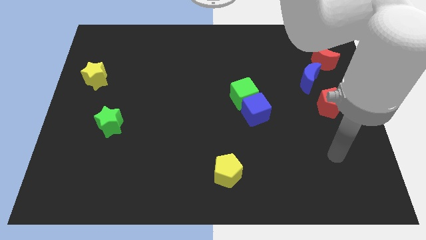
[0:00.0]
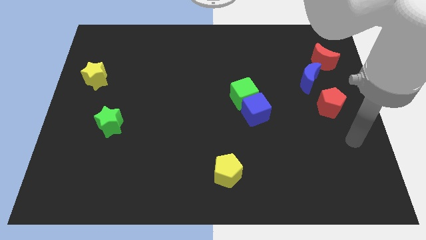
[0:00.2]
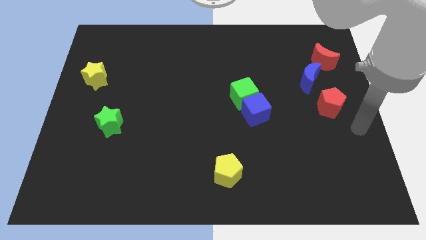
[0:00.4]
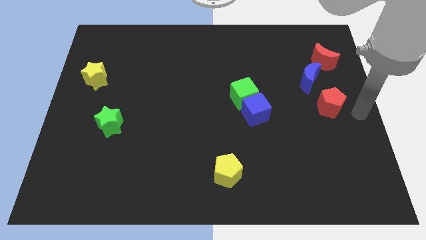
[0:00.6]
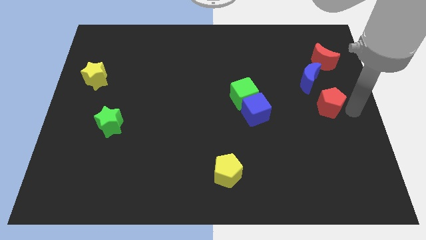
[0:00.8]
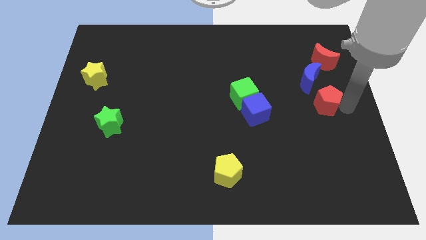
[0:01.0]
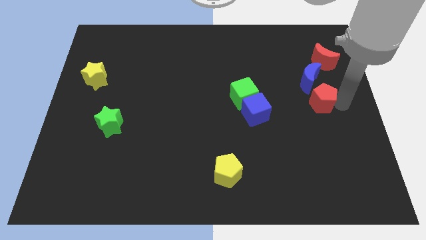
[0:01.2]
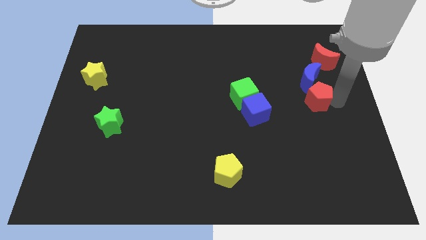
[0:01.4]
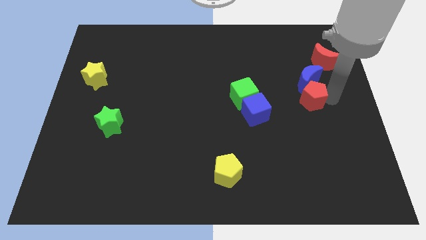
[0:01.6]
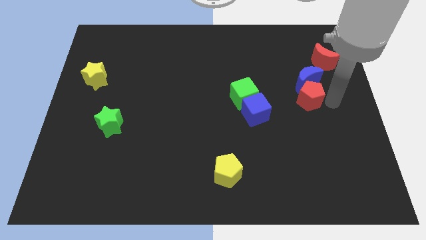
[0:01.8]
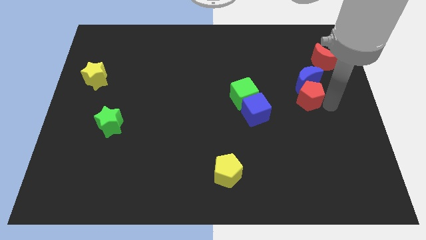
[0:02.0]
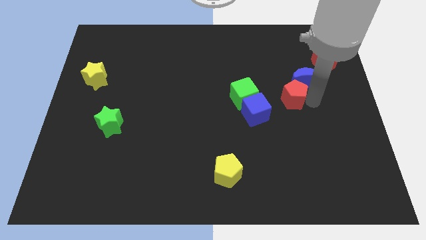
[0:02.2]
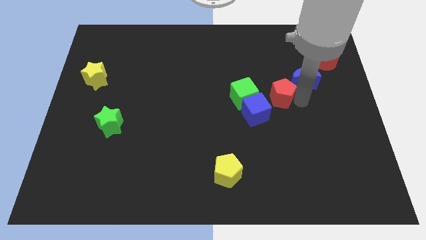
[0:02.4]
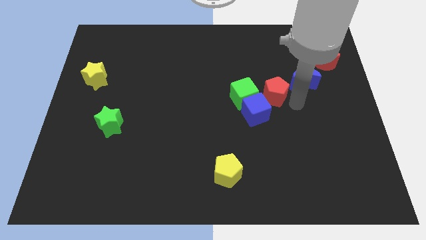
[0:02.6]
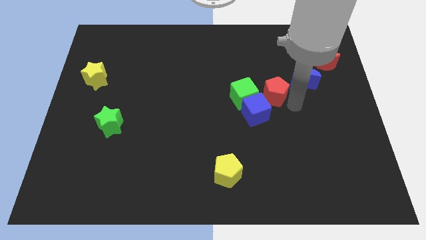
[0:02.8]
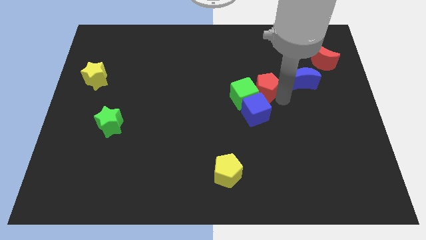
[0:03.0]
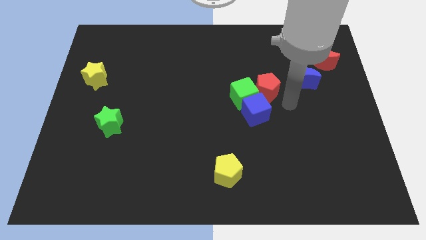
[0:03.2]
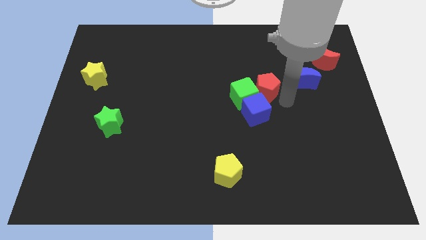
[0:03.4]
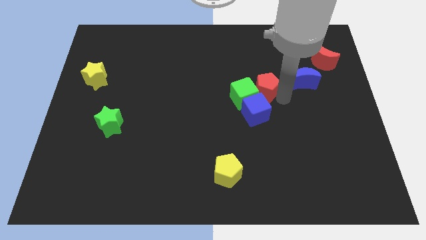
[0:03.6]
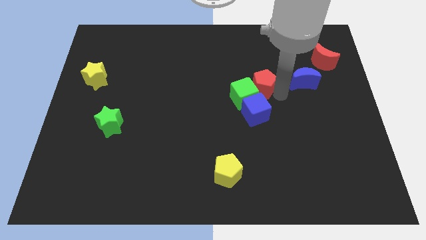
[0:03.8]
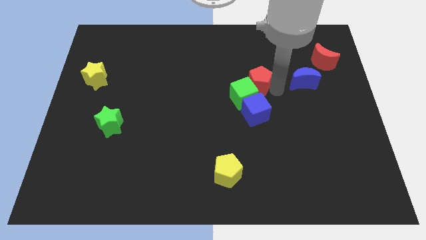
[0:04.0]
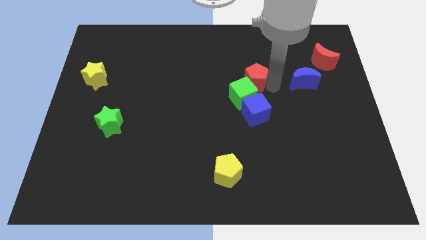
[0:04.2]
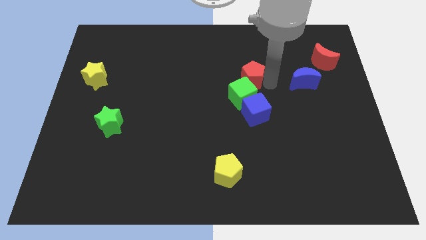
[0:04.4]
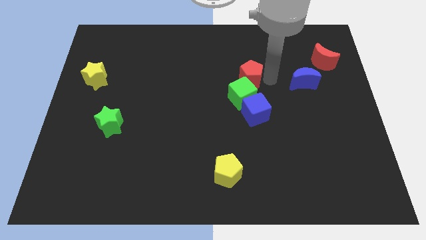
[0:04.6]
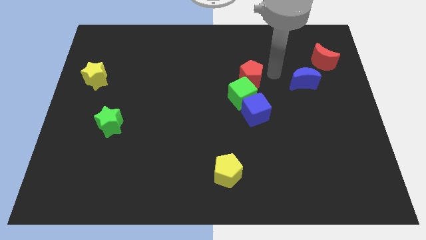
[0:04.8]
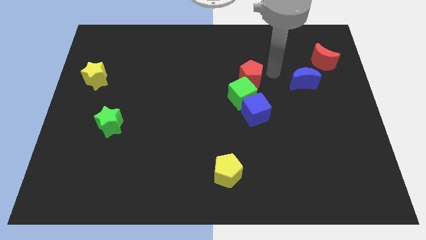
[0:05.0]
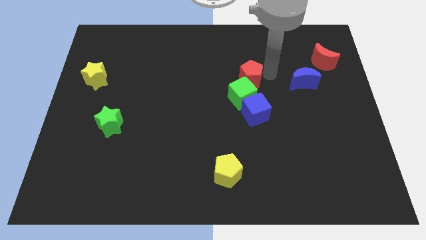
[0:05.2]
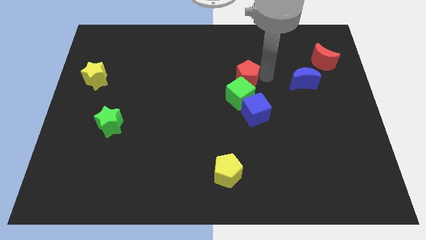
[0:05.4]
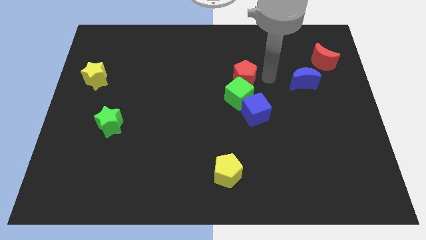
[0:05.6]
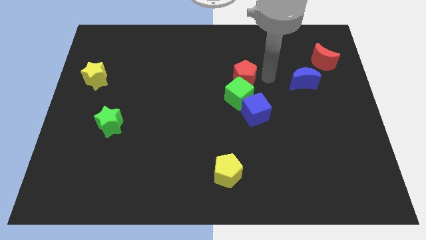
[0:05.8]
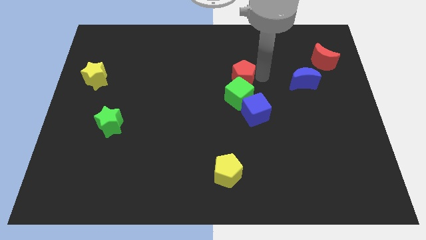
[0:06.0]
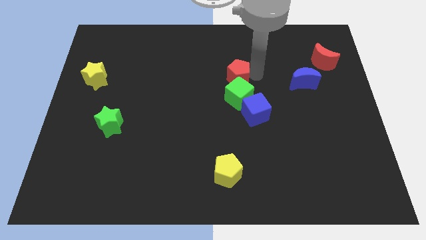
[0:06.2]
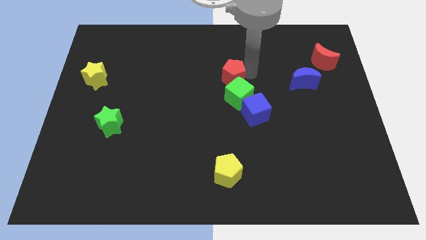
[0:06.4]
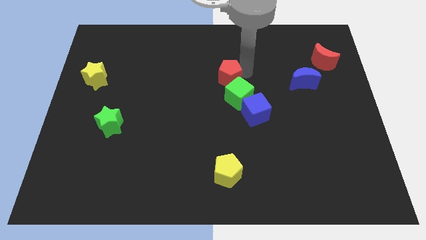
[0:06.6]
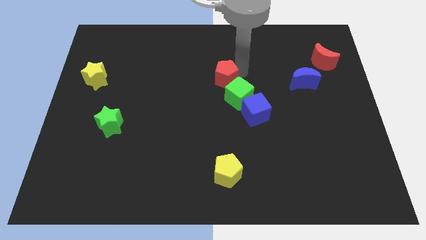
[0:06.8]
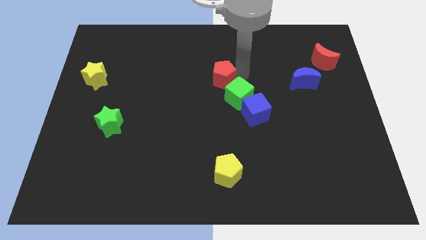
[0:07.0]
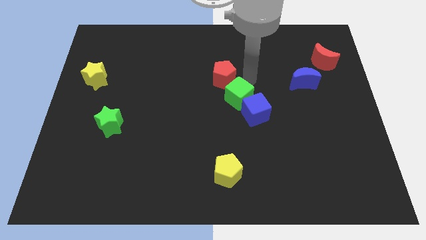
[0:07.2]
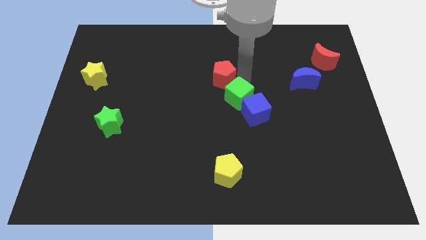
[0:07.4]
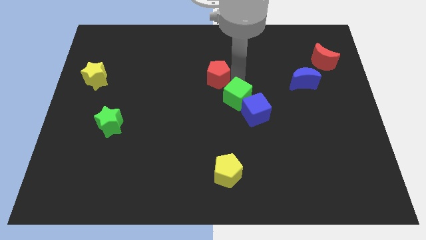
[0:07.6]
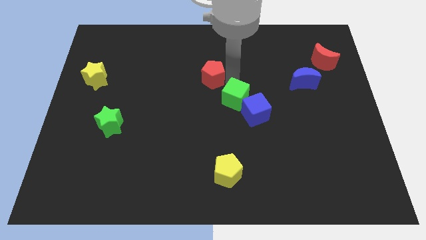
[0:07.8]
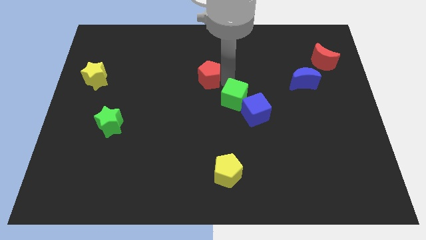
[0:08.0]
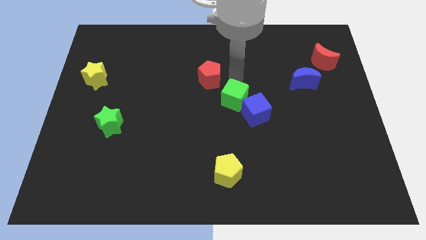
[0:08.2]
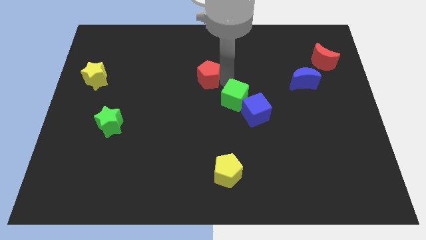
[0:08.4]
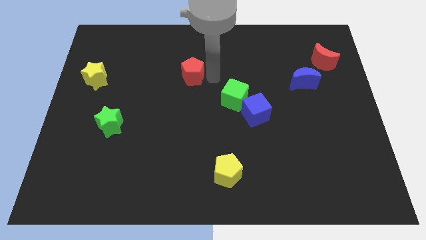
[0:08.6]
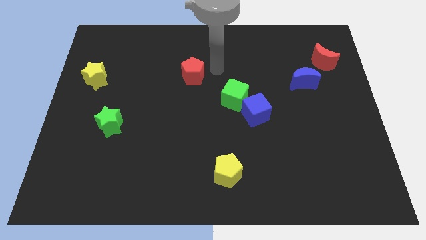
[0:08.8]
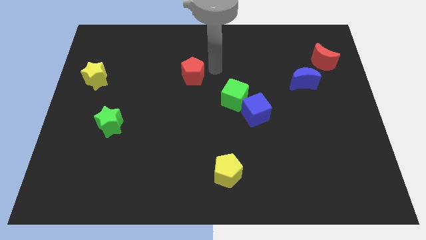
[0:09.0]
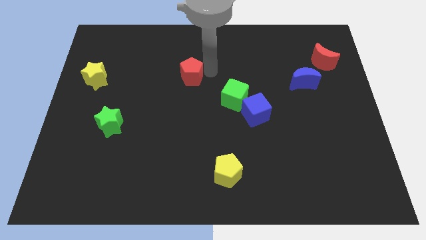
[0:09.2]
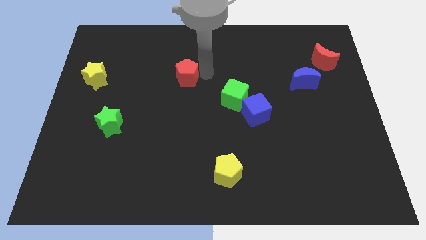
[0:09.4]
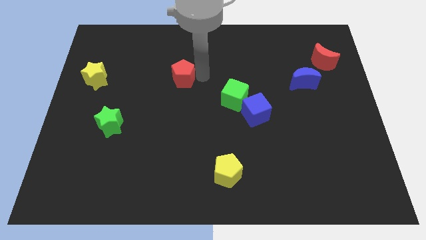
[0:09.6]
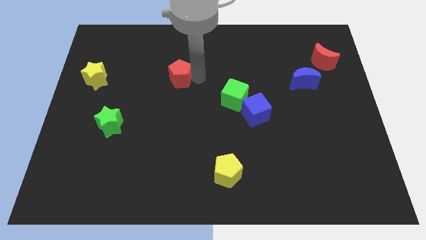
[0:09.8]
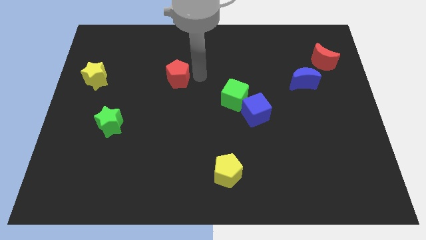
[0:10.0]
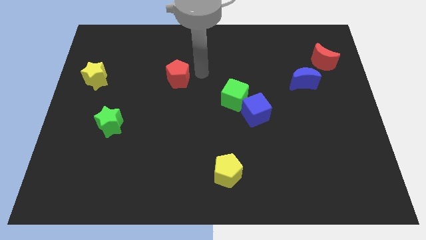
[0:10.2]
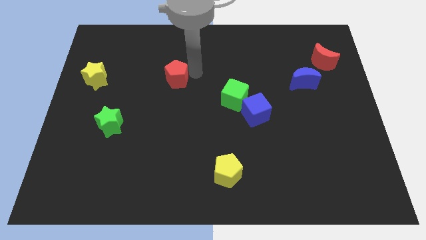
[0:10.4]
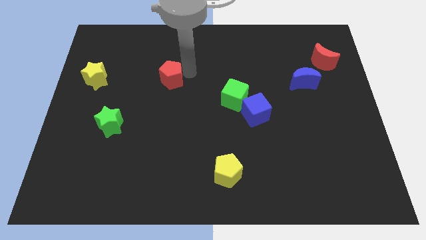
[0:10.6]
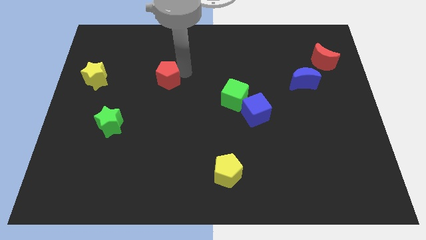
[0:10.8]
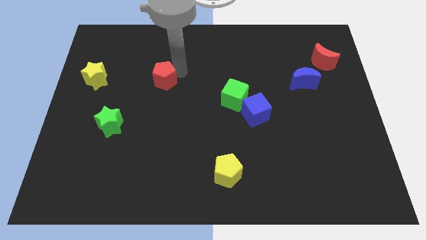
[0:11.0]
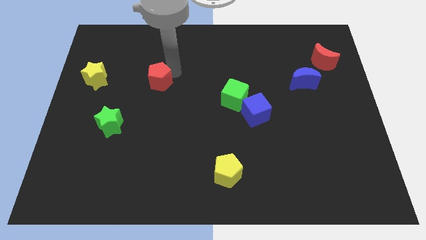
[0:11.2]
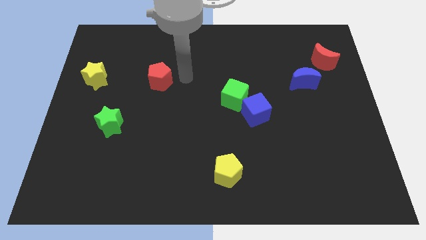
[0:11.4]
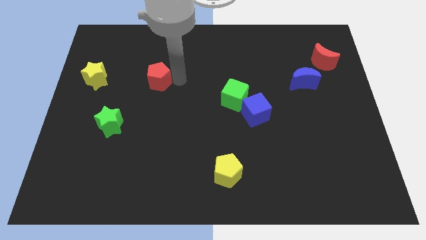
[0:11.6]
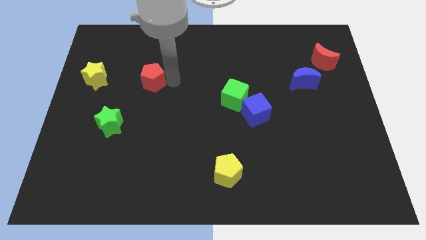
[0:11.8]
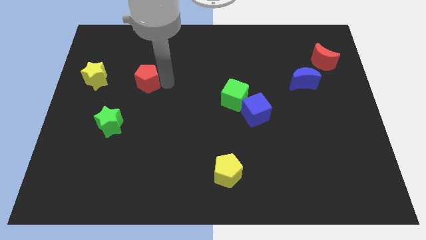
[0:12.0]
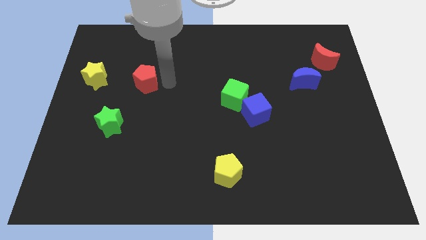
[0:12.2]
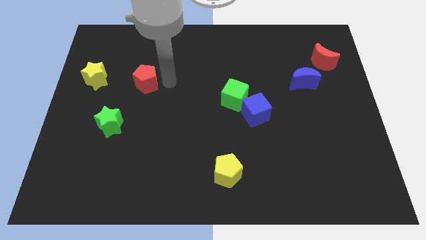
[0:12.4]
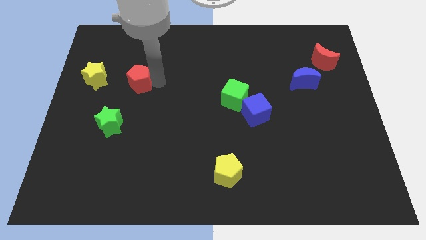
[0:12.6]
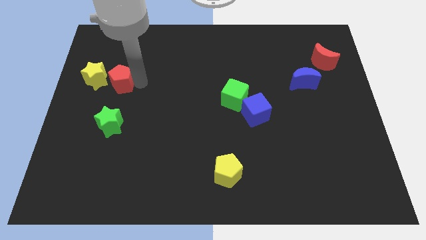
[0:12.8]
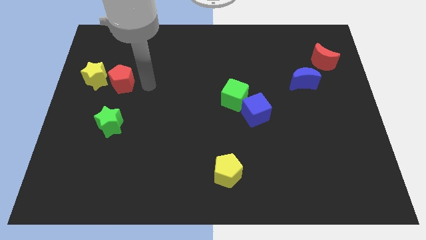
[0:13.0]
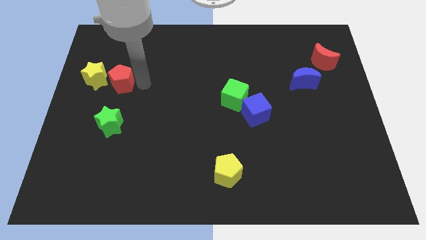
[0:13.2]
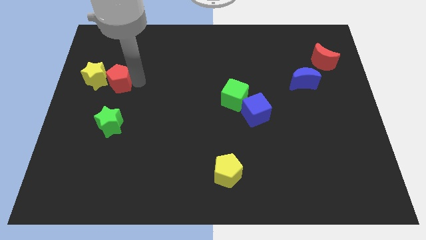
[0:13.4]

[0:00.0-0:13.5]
push the red pentagon towards the yellow star

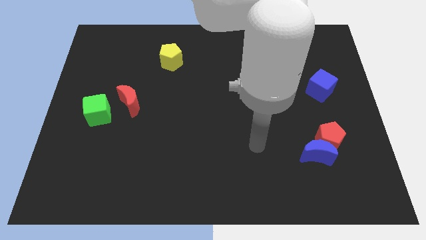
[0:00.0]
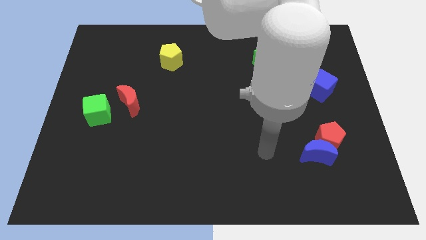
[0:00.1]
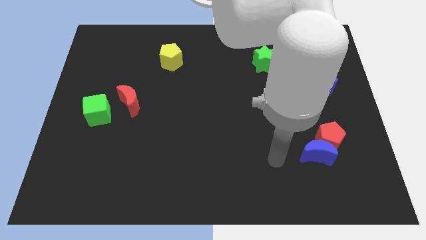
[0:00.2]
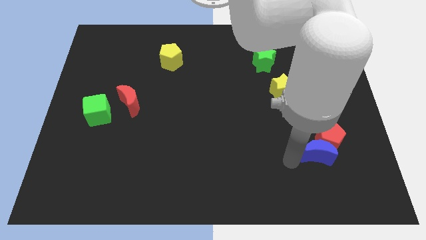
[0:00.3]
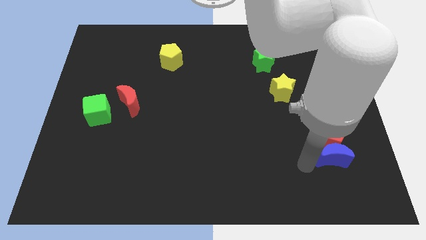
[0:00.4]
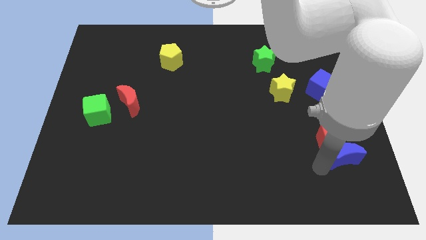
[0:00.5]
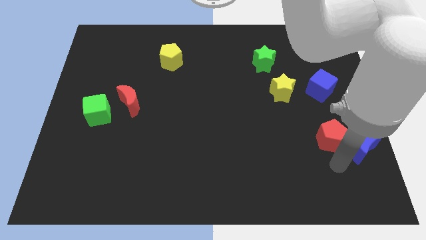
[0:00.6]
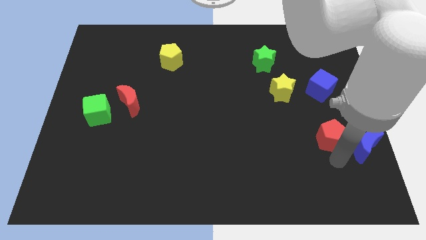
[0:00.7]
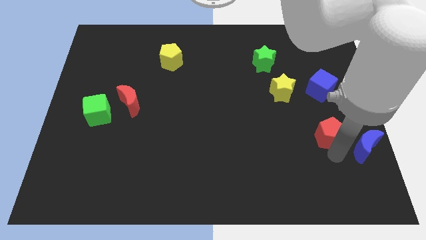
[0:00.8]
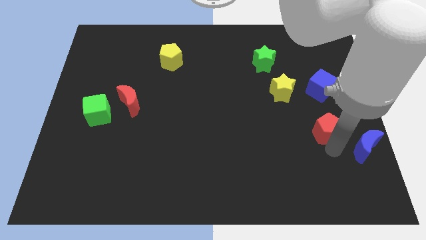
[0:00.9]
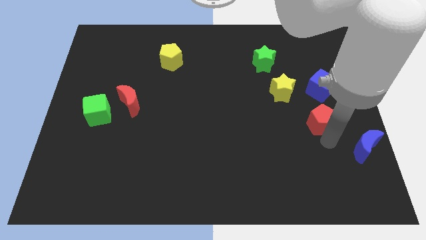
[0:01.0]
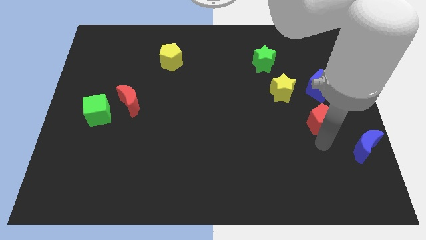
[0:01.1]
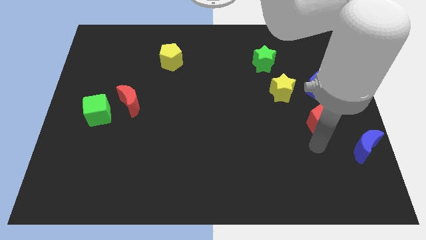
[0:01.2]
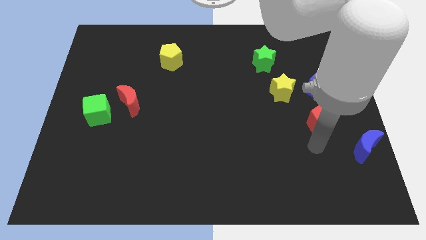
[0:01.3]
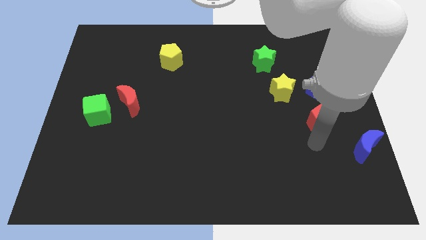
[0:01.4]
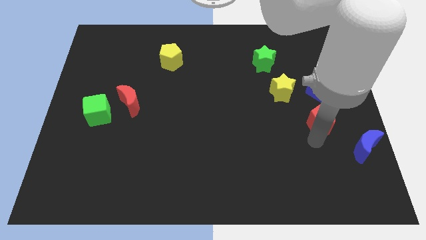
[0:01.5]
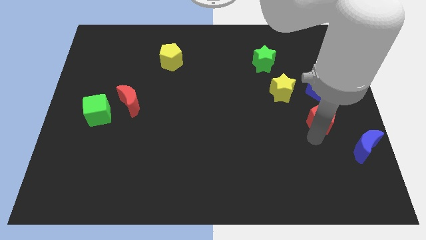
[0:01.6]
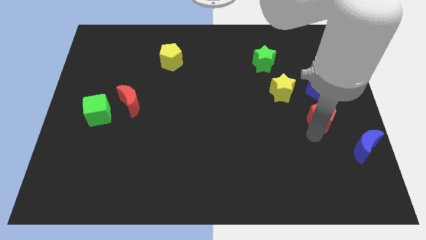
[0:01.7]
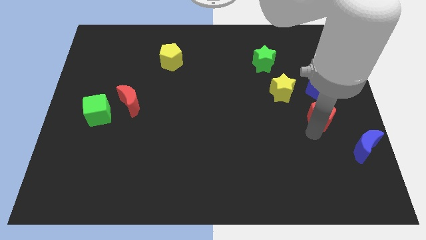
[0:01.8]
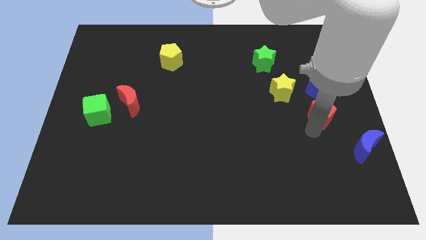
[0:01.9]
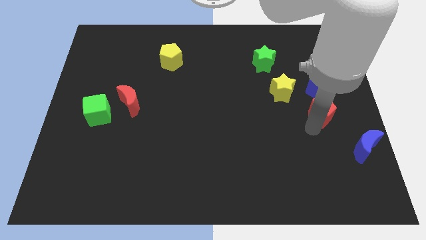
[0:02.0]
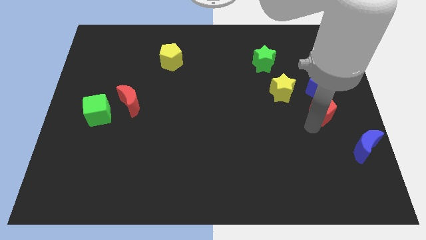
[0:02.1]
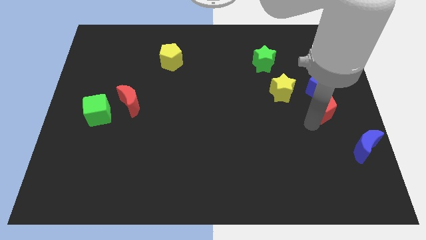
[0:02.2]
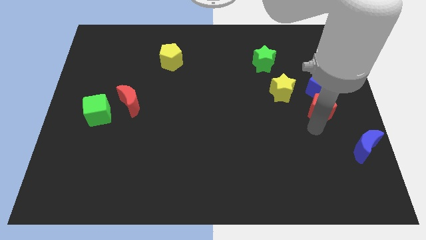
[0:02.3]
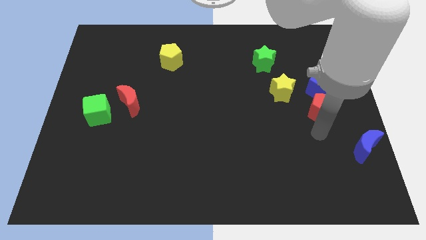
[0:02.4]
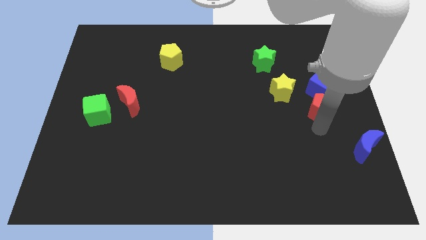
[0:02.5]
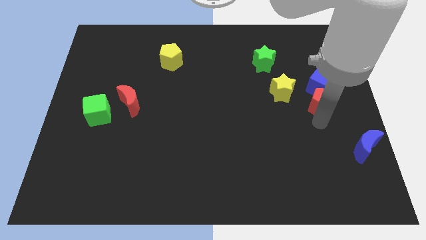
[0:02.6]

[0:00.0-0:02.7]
slide the red pentagon towards the blue cube
